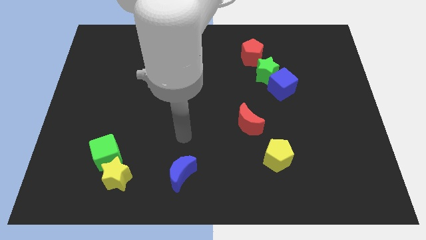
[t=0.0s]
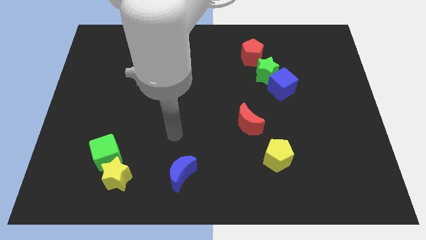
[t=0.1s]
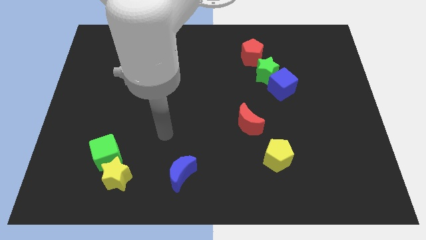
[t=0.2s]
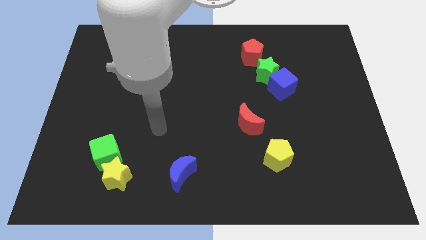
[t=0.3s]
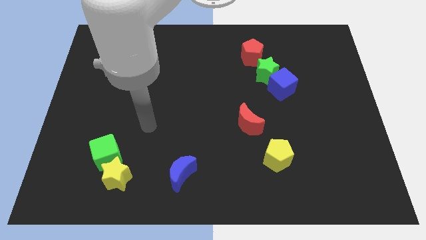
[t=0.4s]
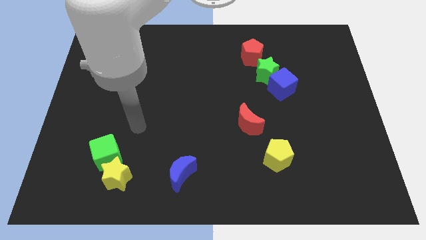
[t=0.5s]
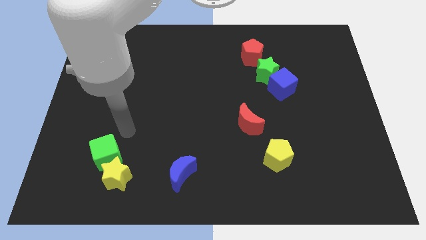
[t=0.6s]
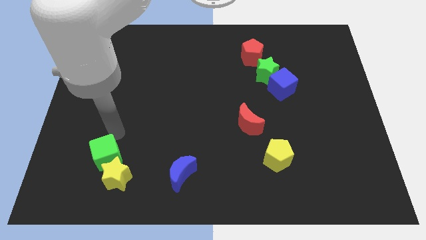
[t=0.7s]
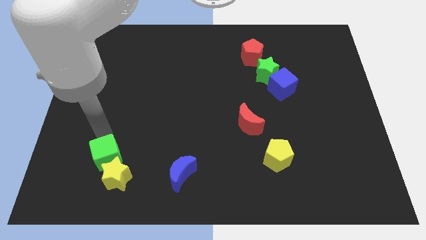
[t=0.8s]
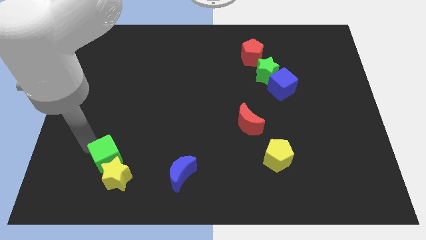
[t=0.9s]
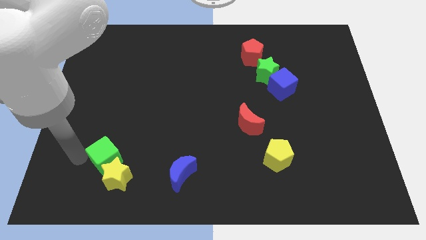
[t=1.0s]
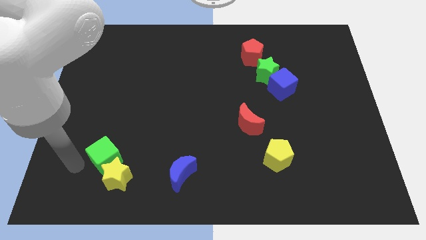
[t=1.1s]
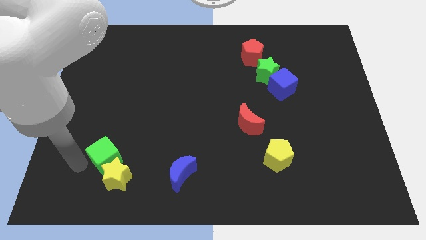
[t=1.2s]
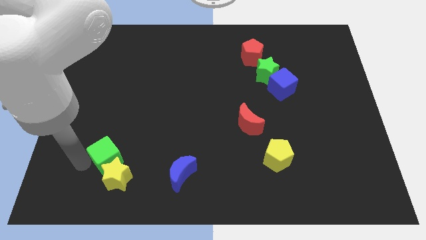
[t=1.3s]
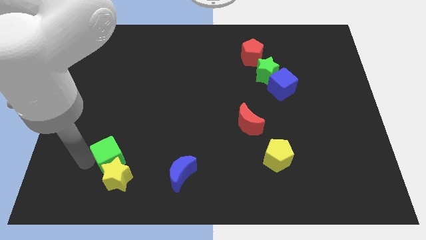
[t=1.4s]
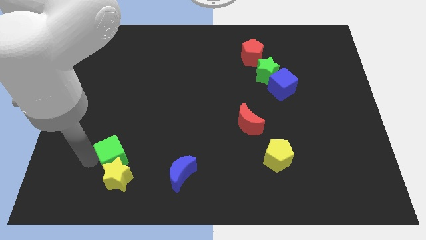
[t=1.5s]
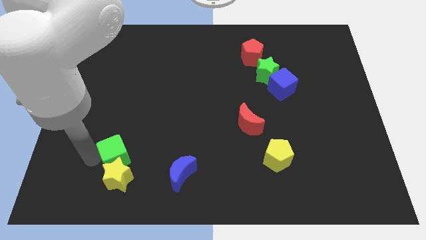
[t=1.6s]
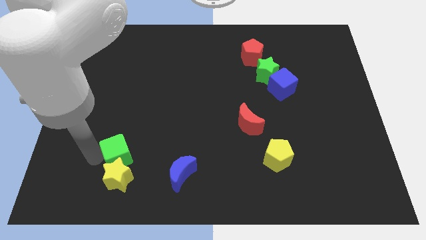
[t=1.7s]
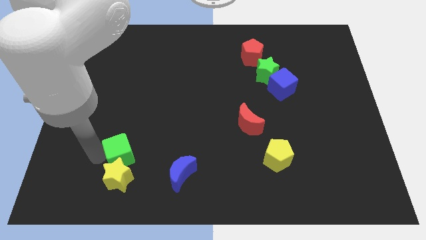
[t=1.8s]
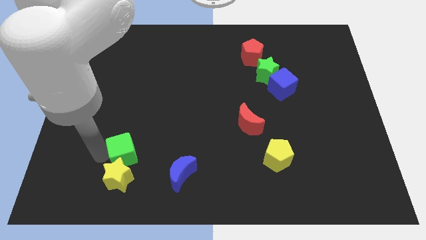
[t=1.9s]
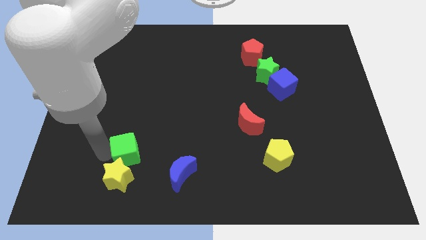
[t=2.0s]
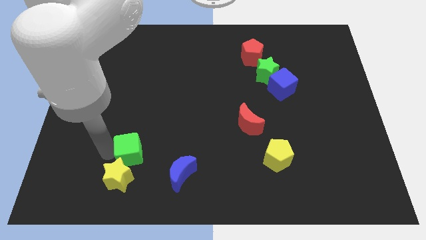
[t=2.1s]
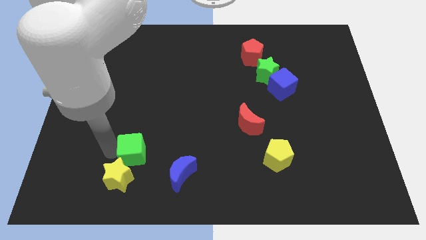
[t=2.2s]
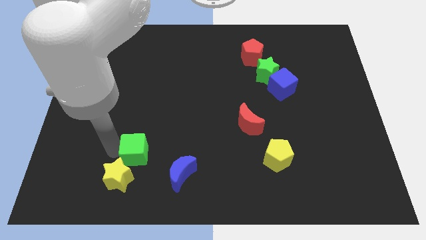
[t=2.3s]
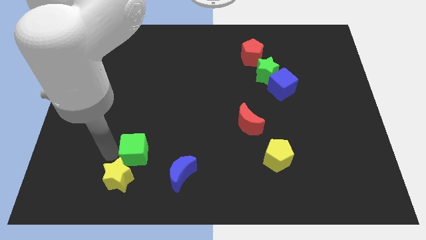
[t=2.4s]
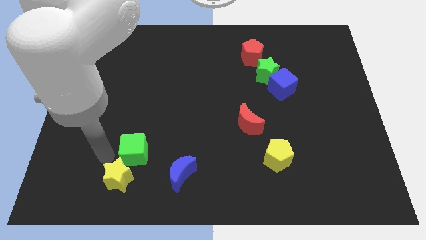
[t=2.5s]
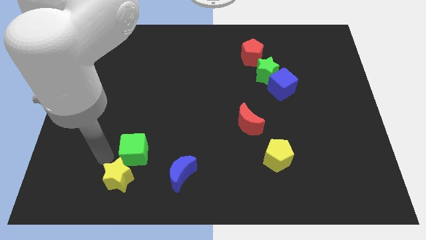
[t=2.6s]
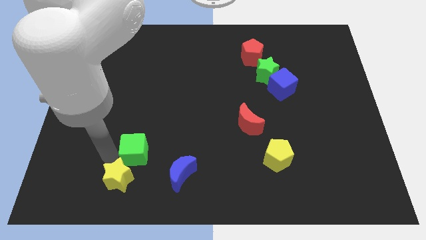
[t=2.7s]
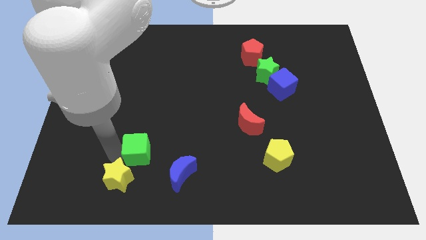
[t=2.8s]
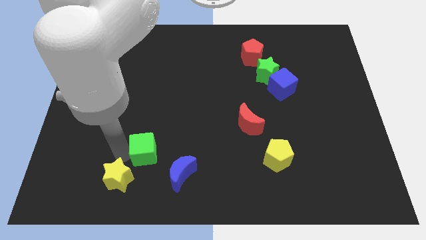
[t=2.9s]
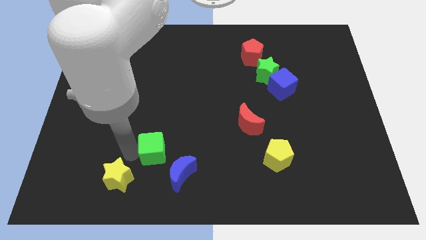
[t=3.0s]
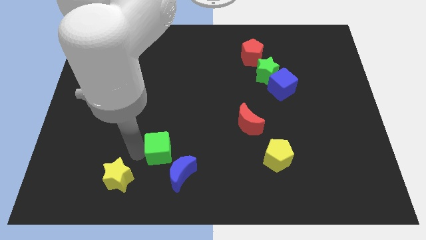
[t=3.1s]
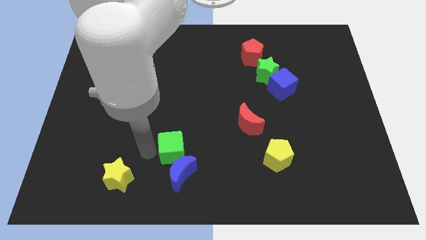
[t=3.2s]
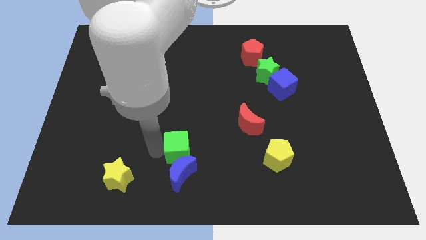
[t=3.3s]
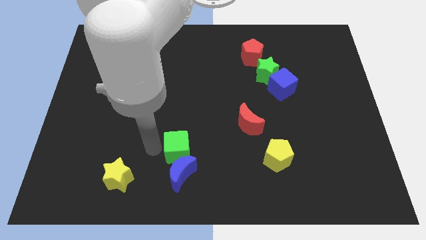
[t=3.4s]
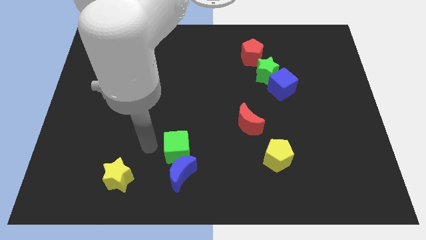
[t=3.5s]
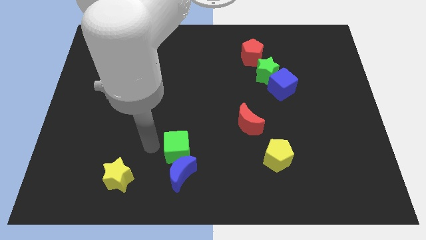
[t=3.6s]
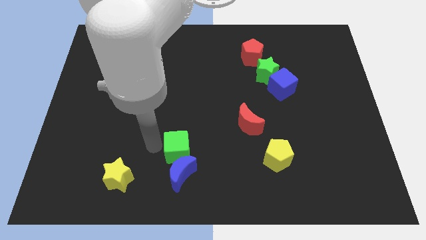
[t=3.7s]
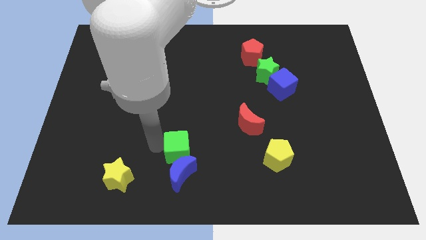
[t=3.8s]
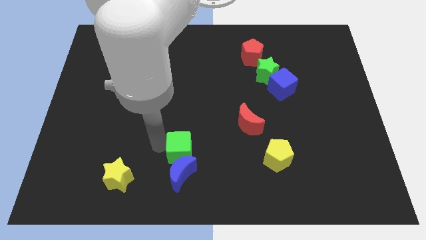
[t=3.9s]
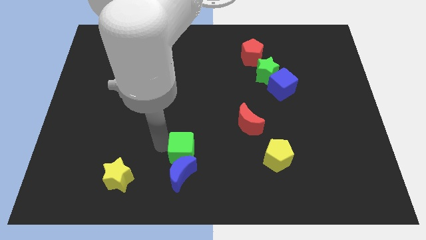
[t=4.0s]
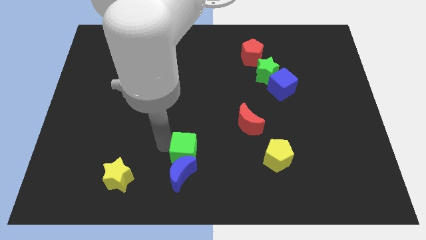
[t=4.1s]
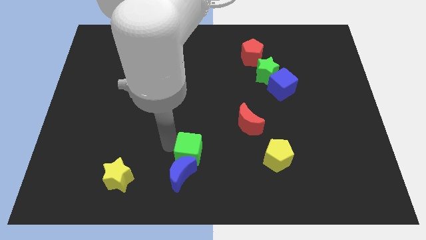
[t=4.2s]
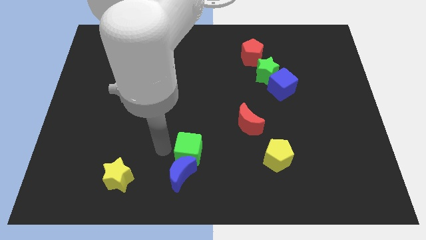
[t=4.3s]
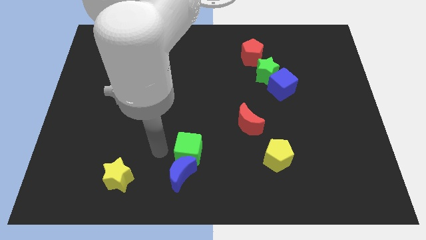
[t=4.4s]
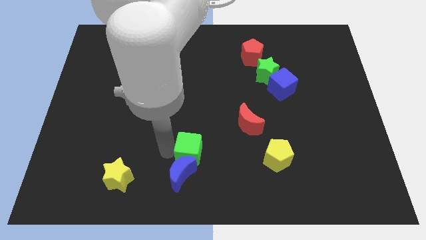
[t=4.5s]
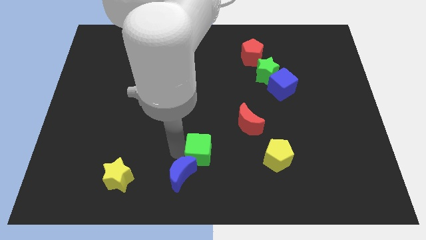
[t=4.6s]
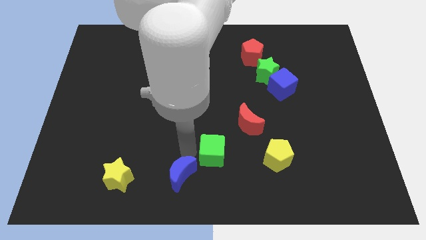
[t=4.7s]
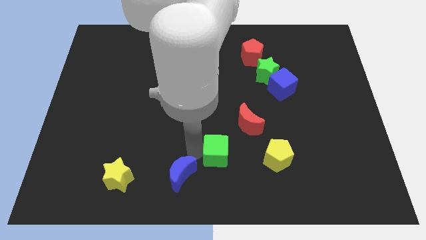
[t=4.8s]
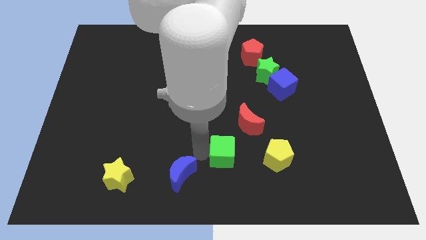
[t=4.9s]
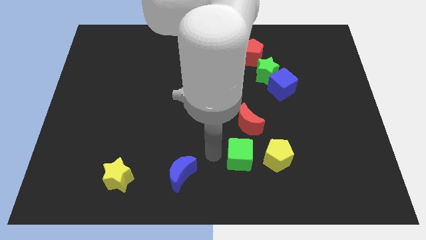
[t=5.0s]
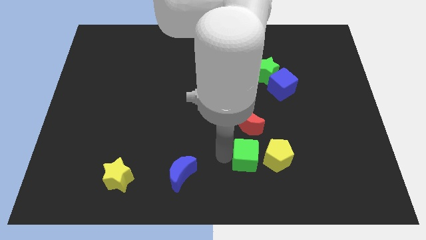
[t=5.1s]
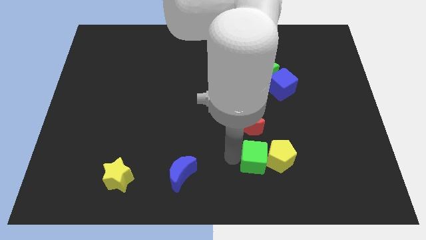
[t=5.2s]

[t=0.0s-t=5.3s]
push the green cube towards the yellow pentagon

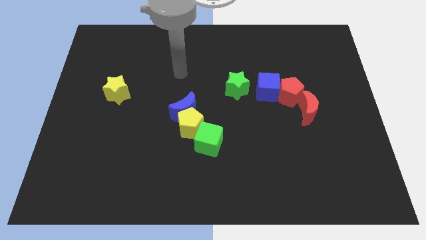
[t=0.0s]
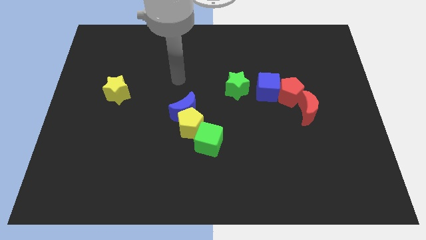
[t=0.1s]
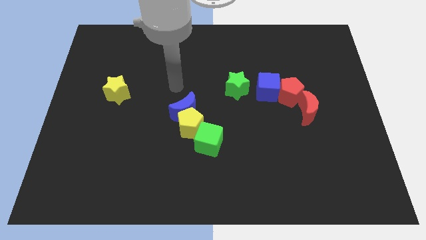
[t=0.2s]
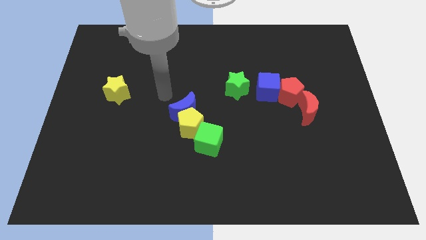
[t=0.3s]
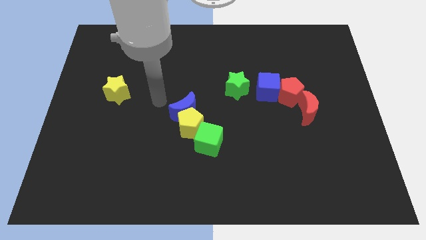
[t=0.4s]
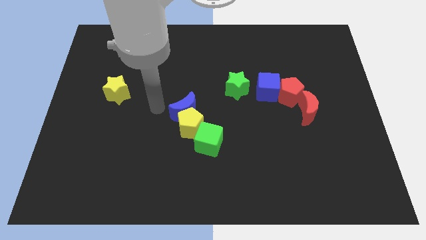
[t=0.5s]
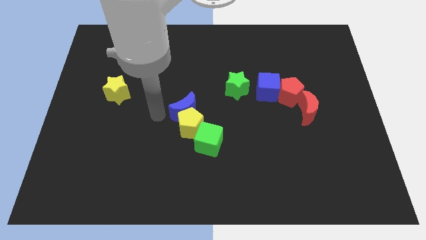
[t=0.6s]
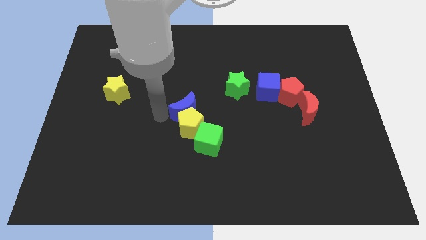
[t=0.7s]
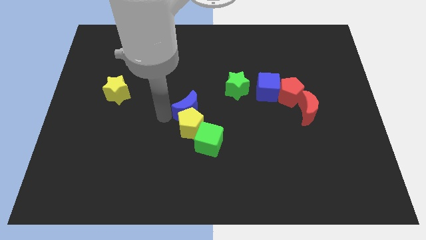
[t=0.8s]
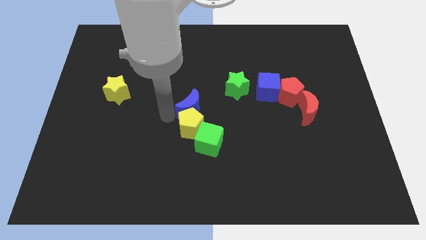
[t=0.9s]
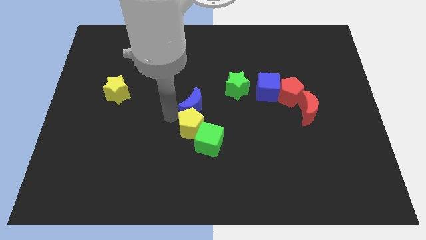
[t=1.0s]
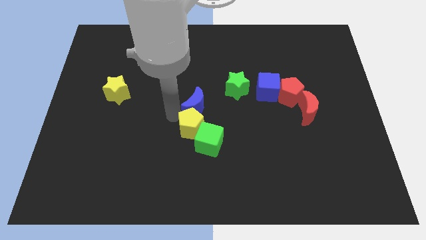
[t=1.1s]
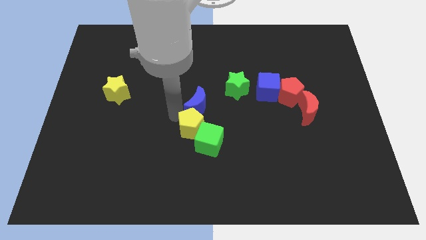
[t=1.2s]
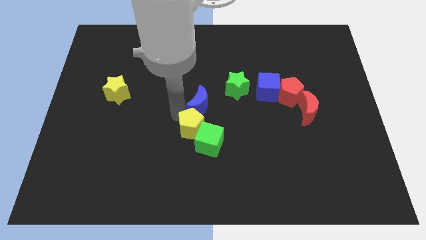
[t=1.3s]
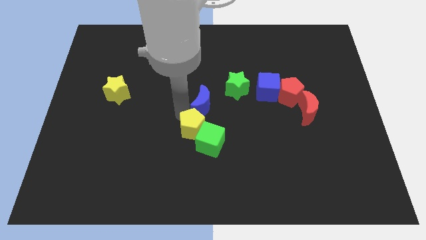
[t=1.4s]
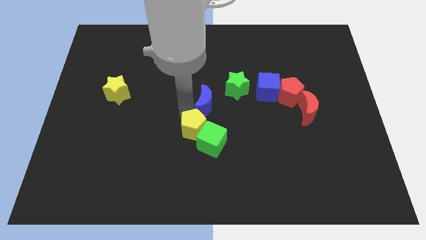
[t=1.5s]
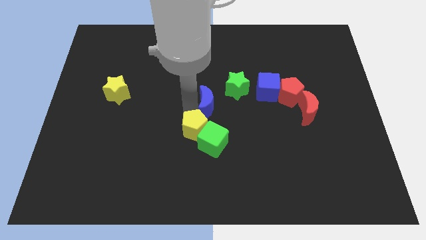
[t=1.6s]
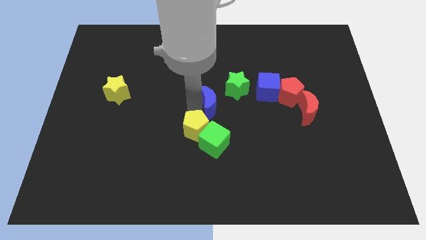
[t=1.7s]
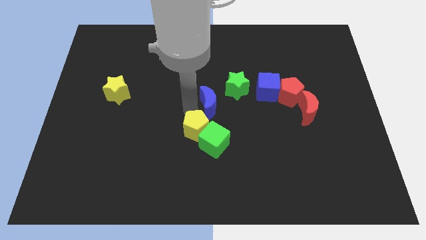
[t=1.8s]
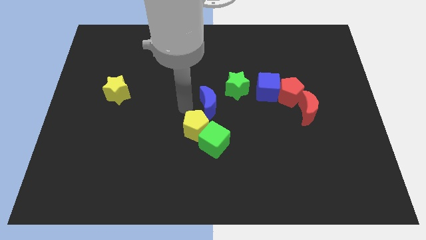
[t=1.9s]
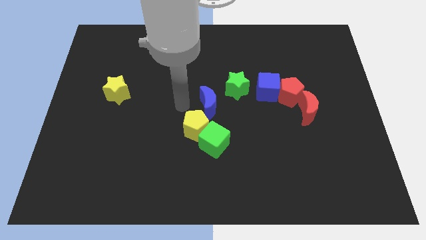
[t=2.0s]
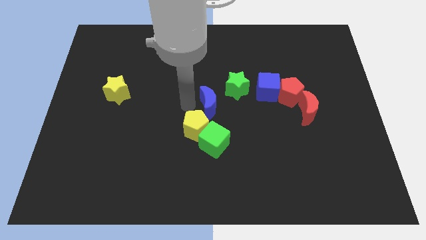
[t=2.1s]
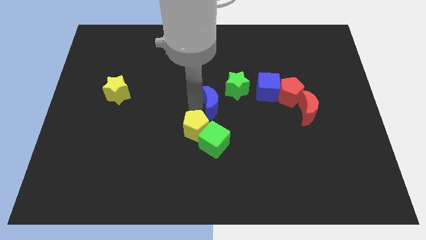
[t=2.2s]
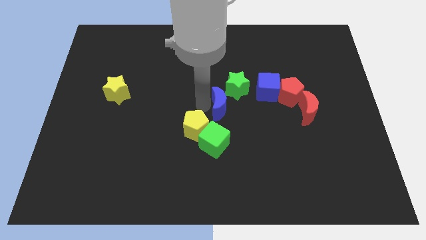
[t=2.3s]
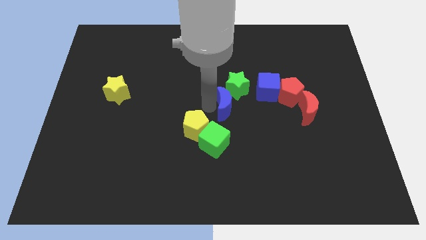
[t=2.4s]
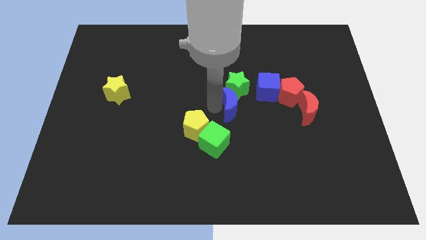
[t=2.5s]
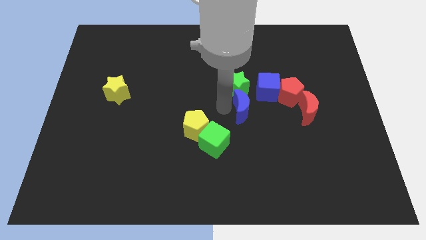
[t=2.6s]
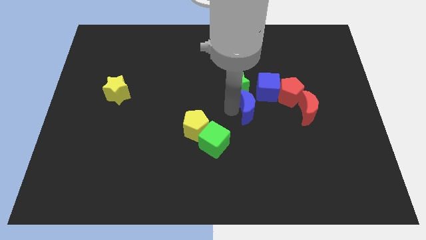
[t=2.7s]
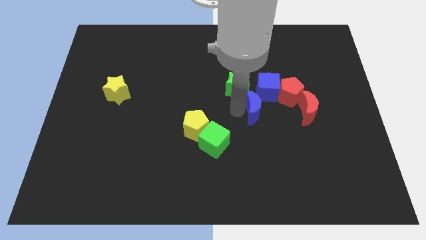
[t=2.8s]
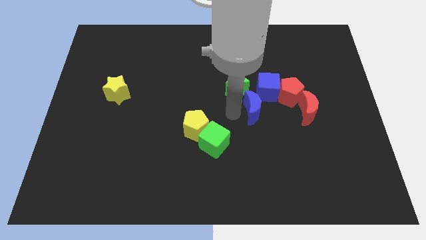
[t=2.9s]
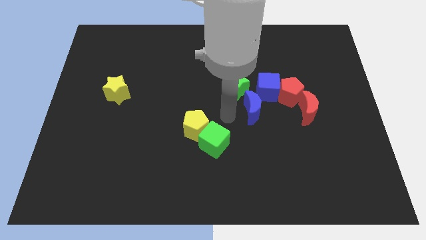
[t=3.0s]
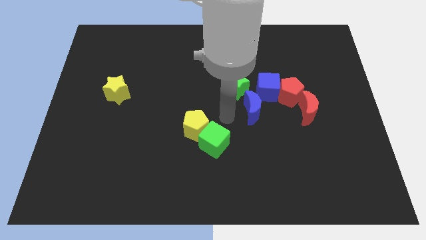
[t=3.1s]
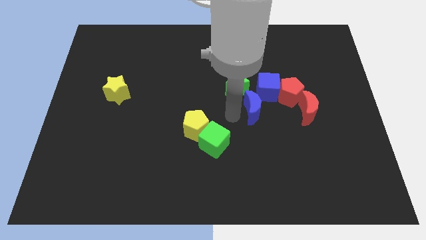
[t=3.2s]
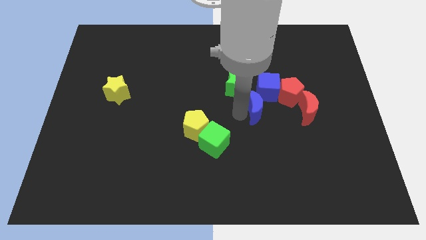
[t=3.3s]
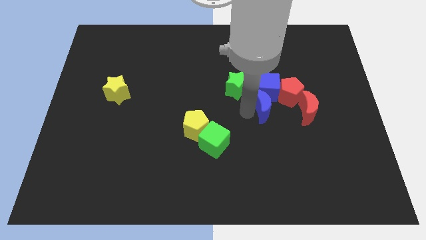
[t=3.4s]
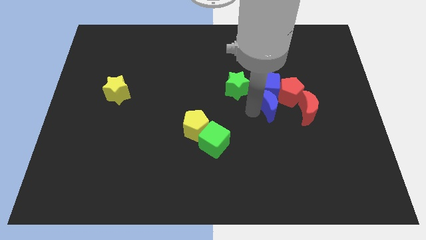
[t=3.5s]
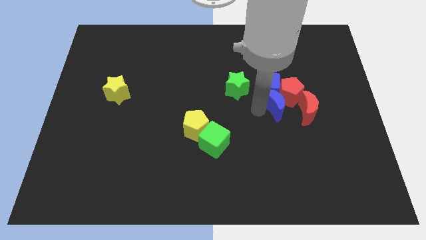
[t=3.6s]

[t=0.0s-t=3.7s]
move the blue moon towards the red pentagon
